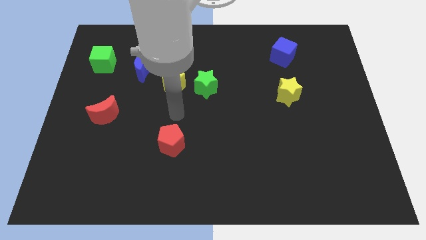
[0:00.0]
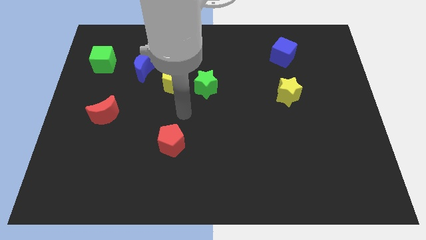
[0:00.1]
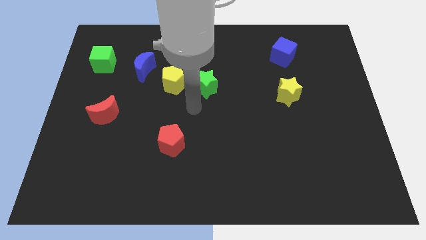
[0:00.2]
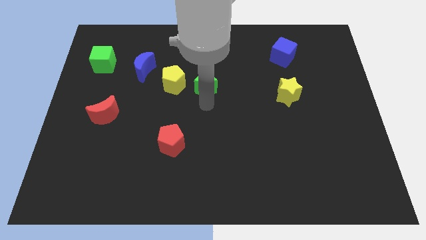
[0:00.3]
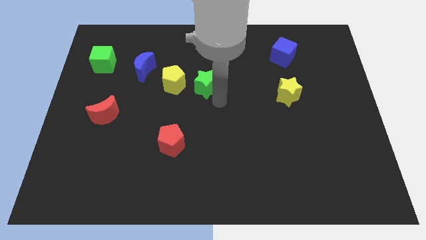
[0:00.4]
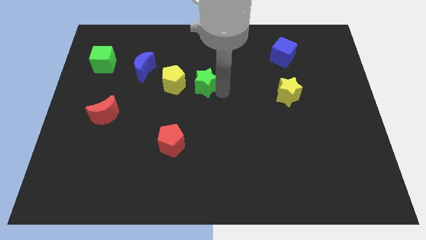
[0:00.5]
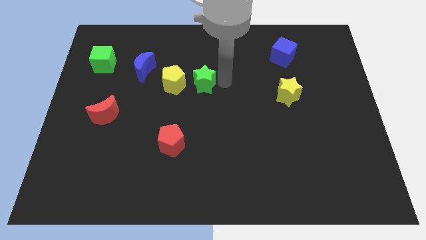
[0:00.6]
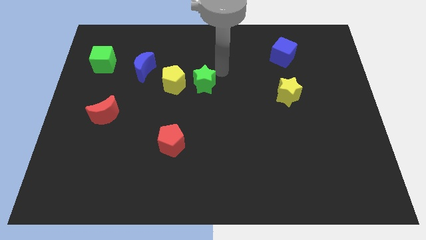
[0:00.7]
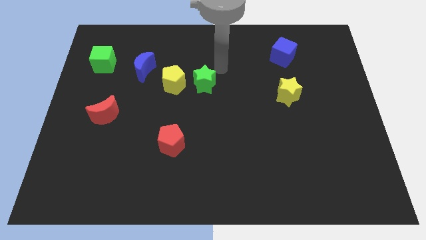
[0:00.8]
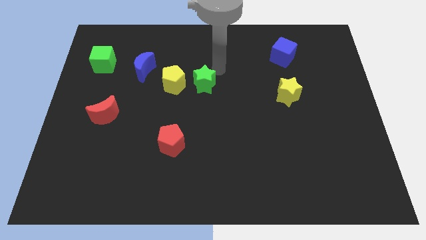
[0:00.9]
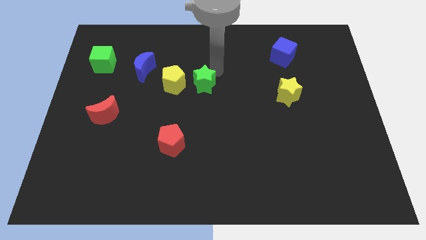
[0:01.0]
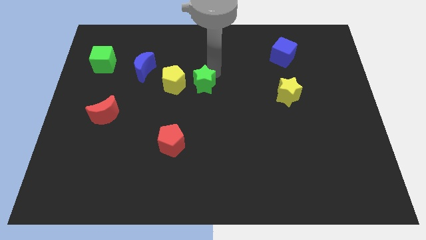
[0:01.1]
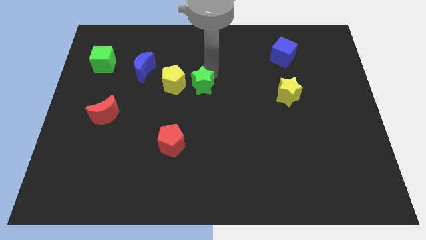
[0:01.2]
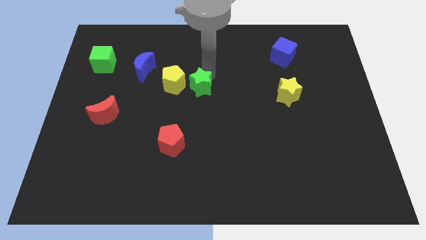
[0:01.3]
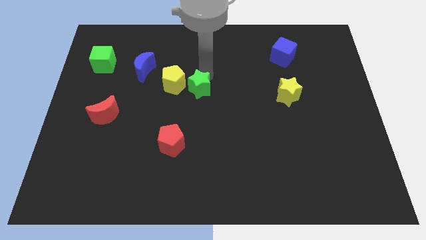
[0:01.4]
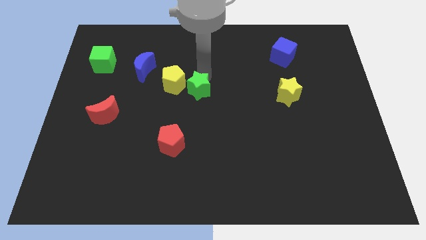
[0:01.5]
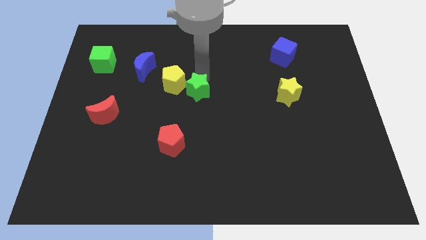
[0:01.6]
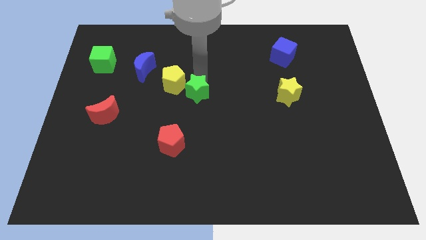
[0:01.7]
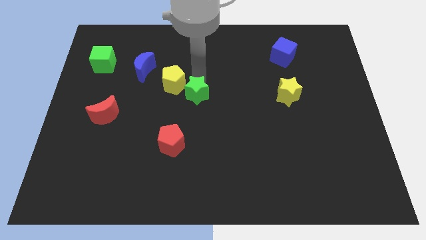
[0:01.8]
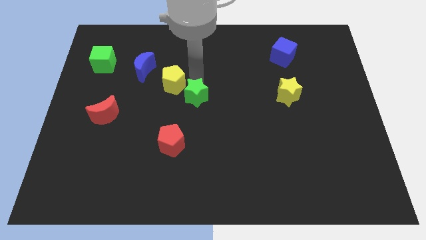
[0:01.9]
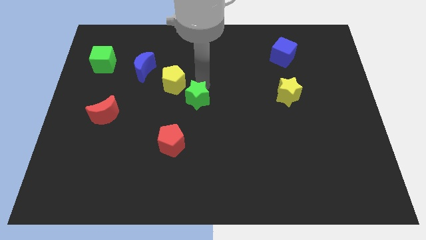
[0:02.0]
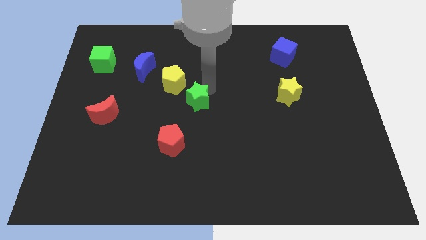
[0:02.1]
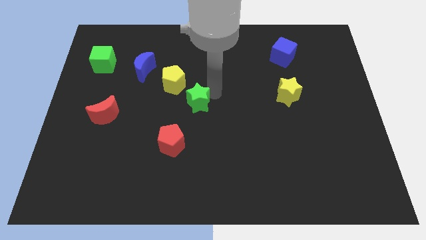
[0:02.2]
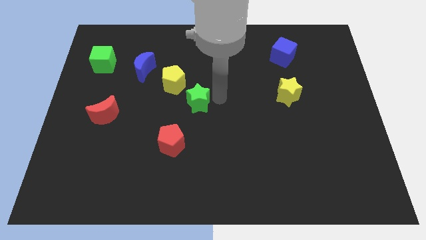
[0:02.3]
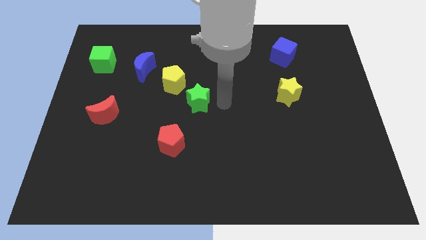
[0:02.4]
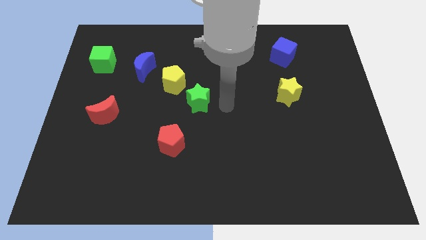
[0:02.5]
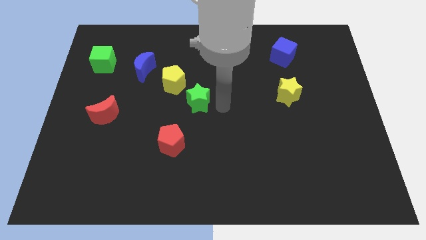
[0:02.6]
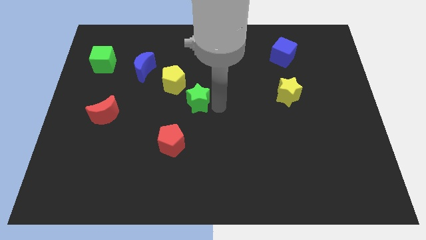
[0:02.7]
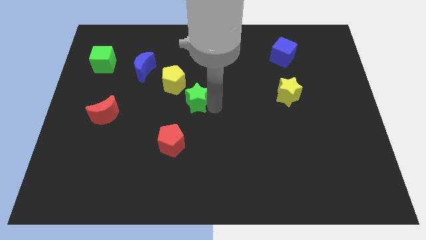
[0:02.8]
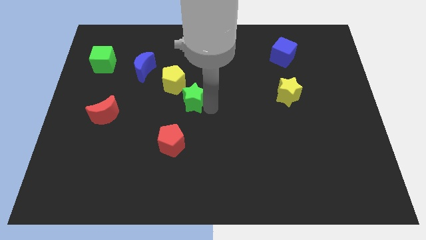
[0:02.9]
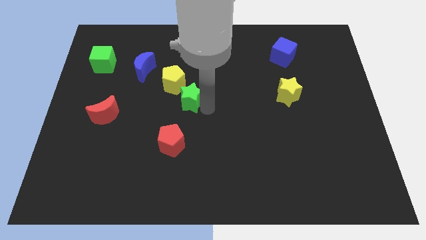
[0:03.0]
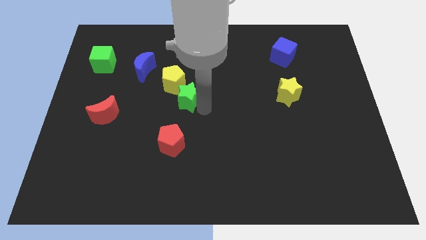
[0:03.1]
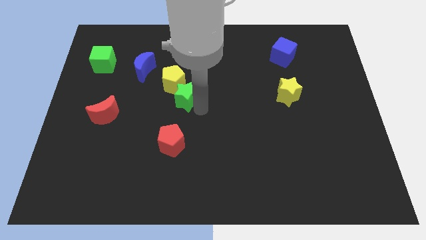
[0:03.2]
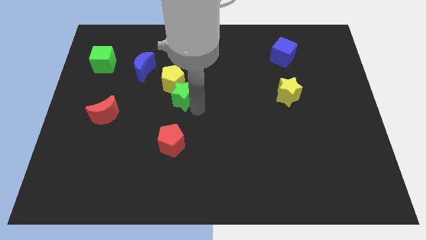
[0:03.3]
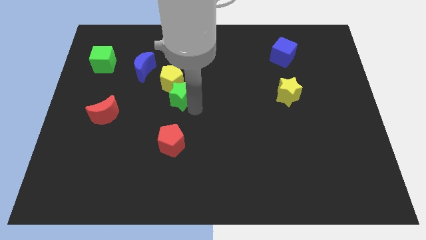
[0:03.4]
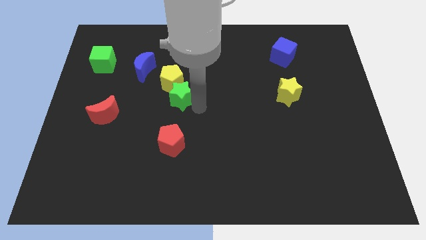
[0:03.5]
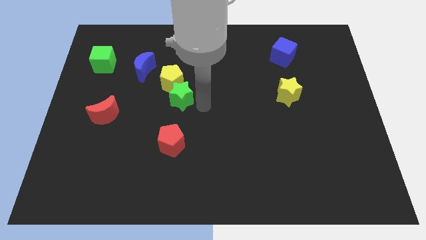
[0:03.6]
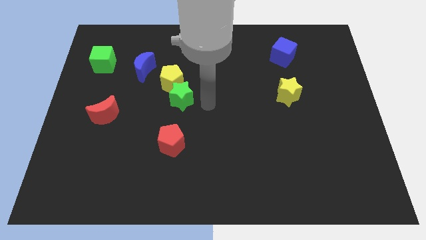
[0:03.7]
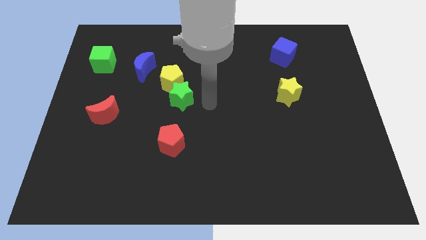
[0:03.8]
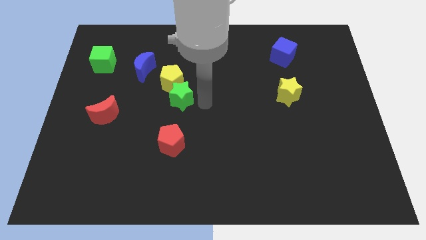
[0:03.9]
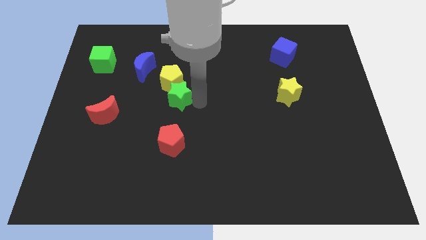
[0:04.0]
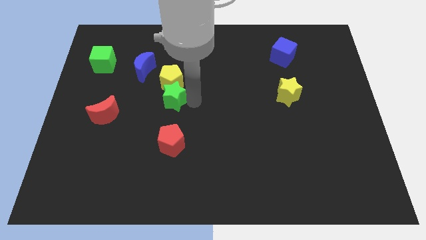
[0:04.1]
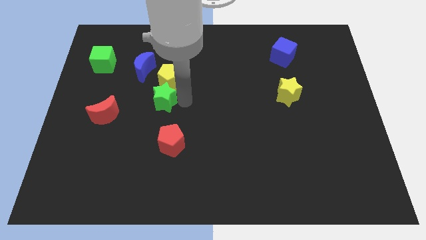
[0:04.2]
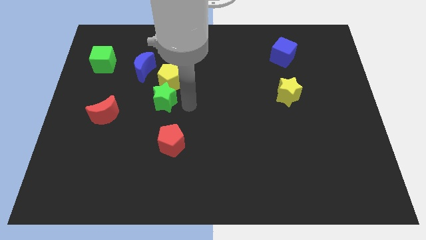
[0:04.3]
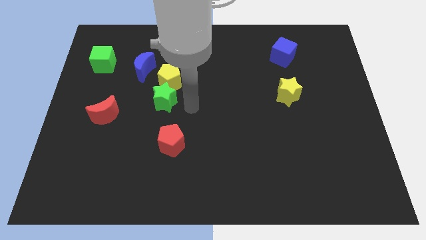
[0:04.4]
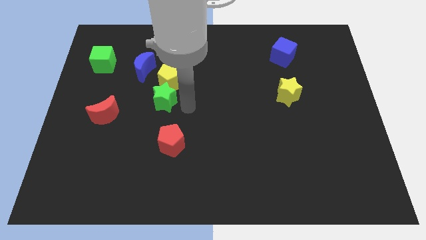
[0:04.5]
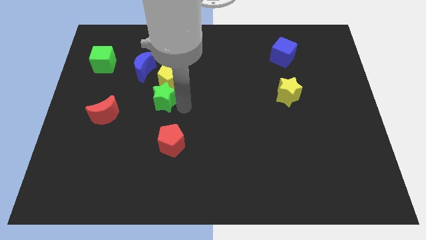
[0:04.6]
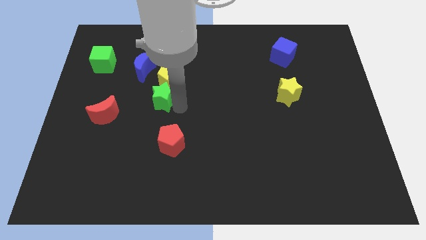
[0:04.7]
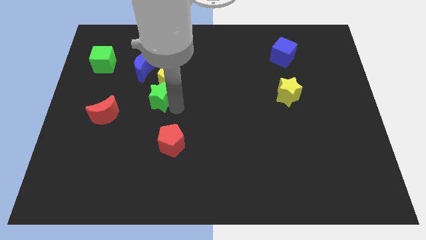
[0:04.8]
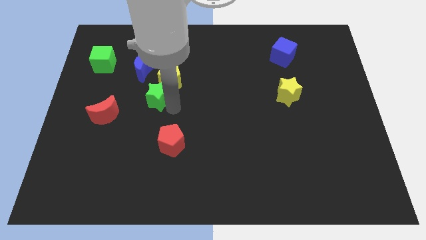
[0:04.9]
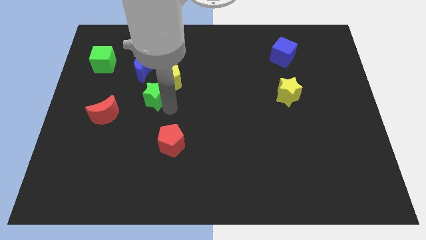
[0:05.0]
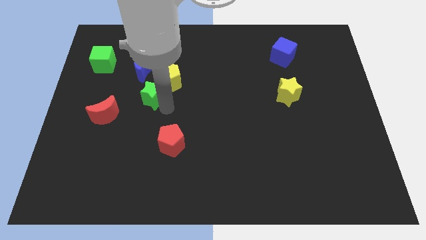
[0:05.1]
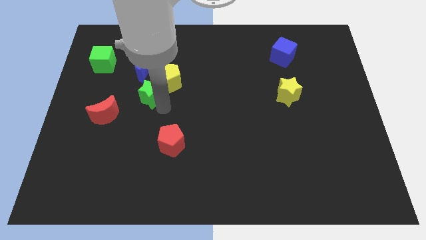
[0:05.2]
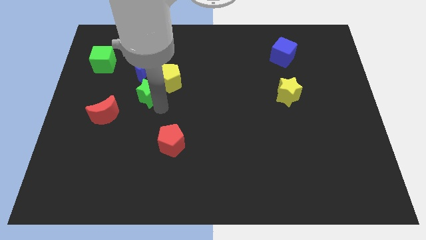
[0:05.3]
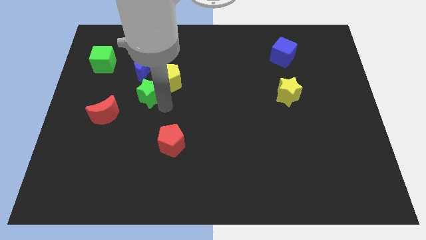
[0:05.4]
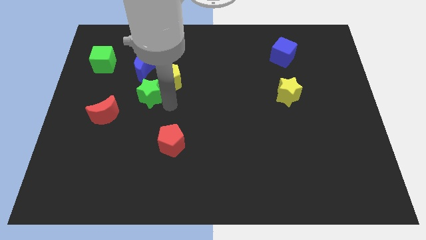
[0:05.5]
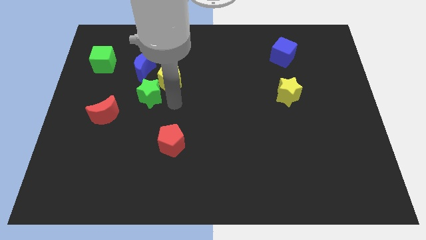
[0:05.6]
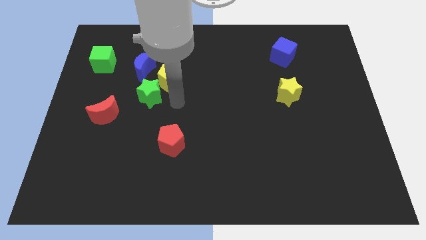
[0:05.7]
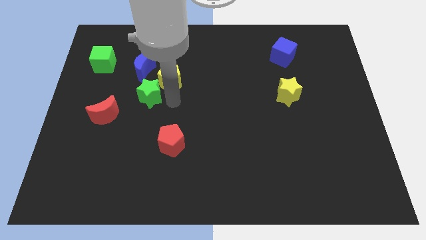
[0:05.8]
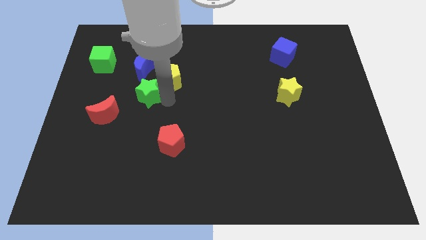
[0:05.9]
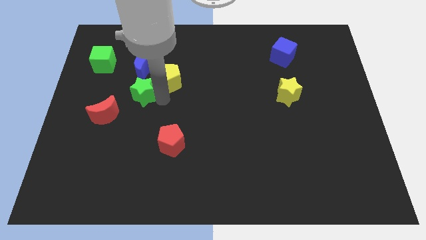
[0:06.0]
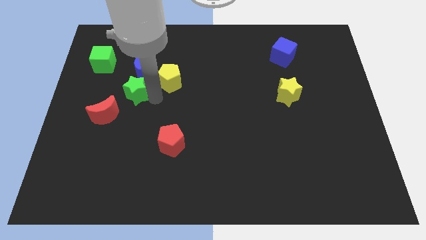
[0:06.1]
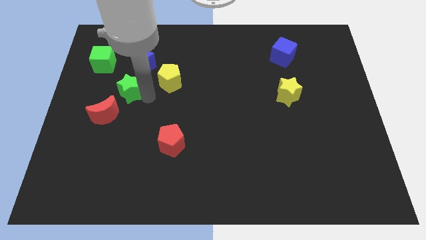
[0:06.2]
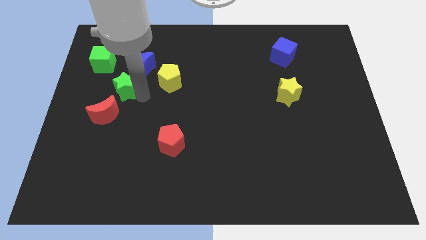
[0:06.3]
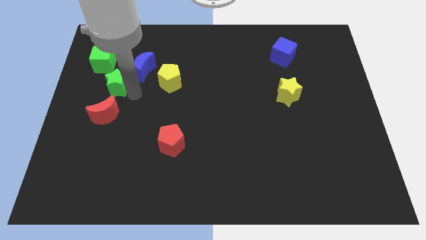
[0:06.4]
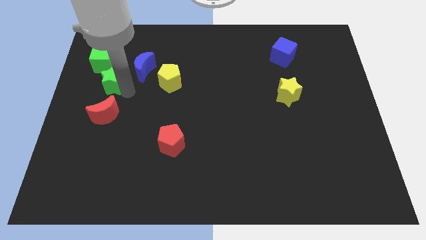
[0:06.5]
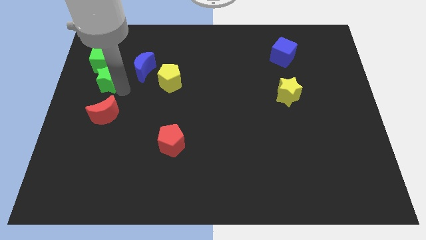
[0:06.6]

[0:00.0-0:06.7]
put the green star to the left side of the blue moon

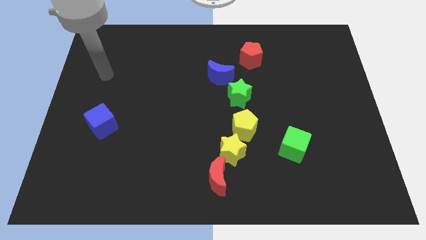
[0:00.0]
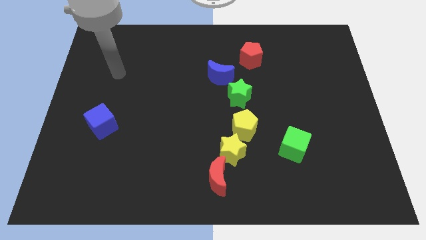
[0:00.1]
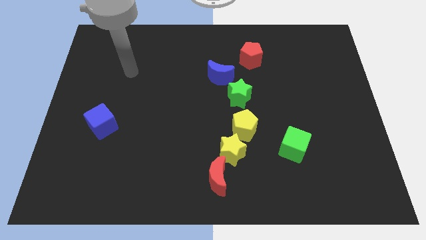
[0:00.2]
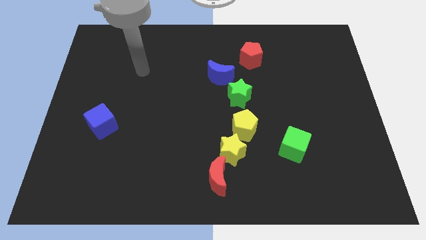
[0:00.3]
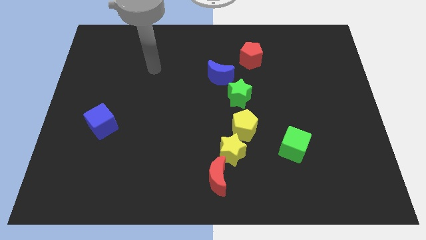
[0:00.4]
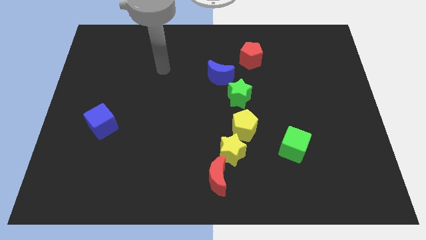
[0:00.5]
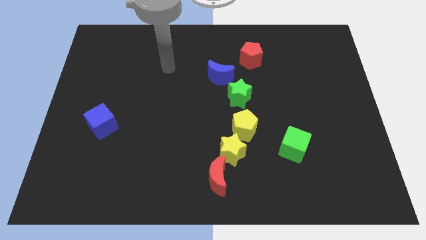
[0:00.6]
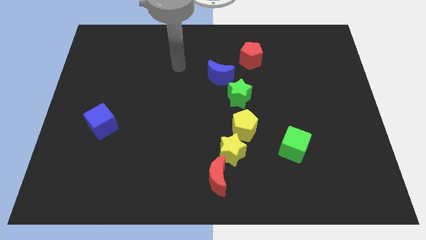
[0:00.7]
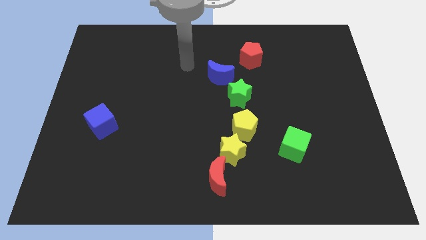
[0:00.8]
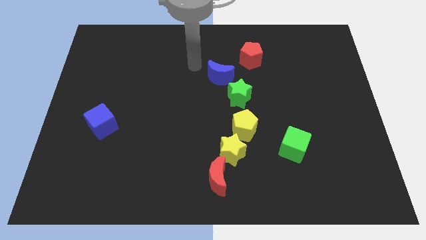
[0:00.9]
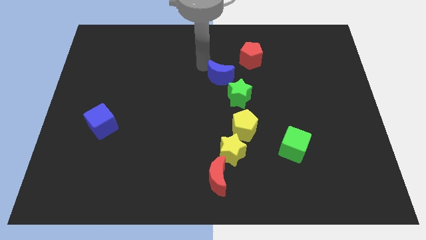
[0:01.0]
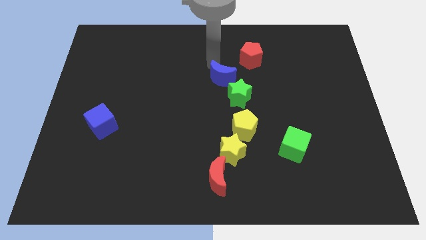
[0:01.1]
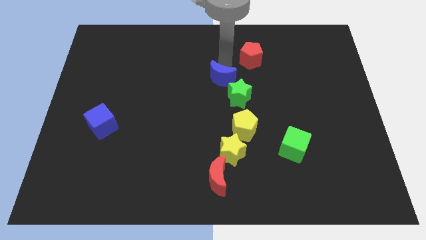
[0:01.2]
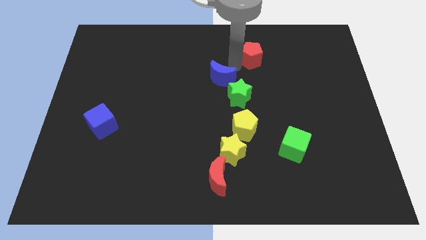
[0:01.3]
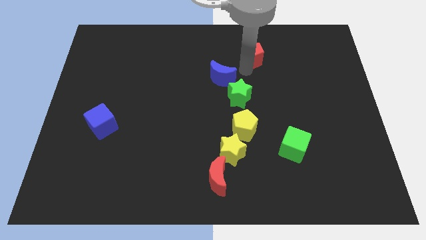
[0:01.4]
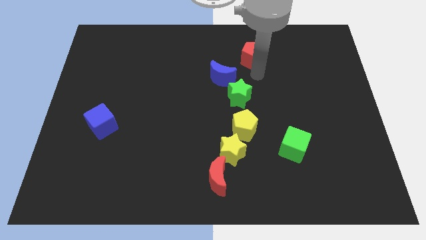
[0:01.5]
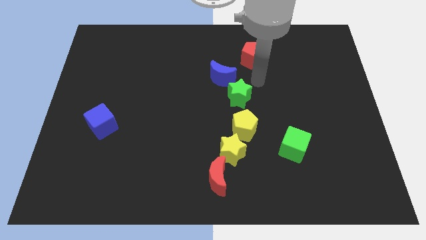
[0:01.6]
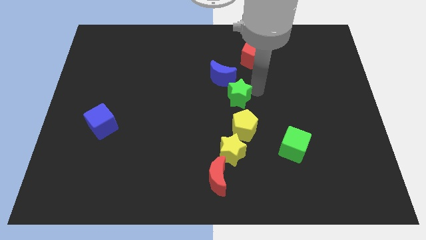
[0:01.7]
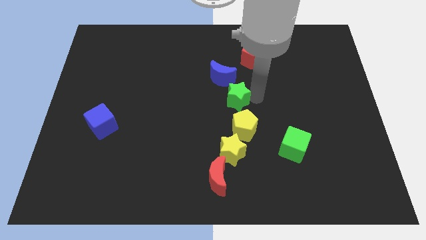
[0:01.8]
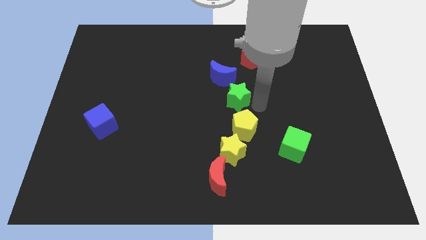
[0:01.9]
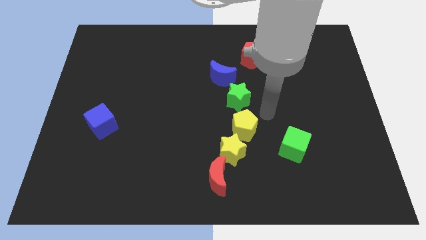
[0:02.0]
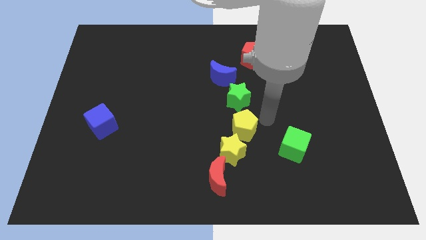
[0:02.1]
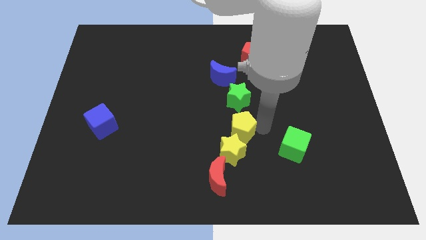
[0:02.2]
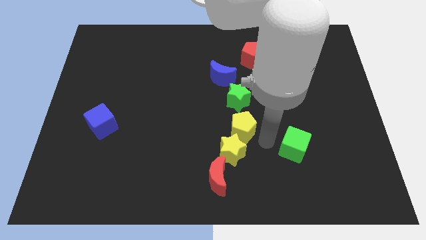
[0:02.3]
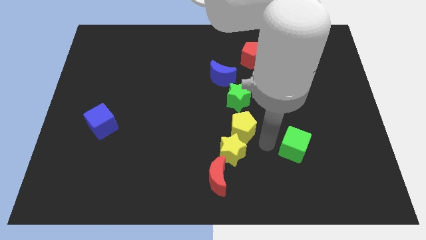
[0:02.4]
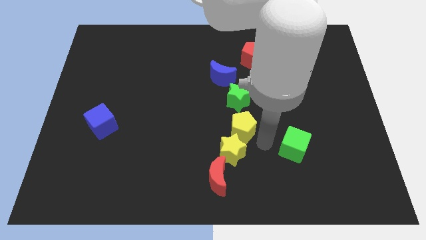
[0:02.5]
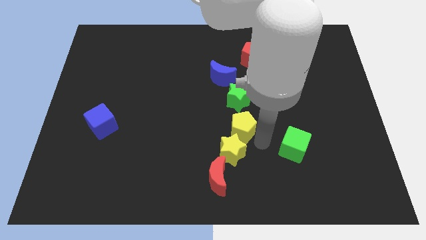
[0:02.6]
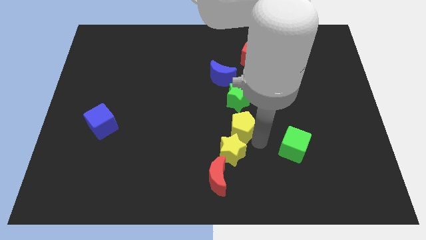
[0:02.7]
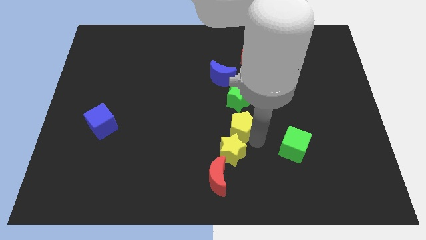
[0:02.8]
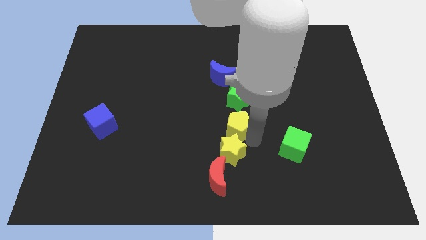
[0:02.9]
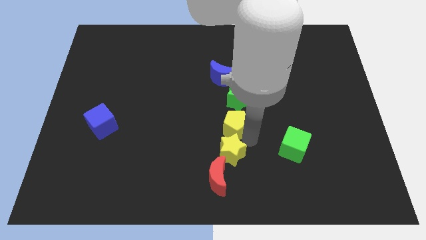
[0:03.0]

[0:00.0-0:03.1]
put the yellow pentagon to the bottom left side of the green star
